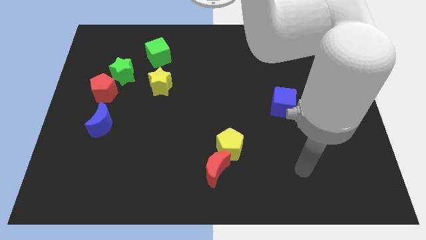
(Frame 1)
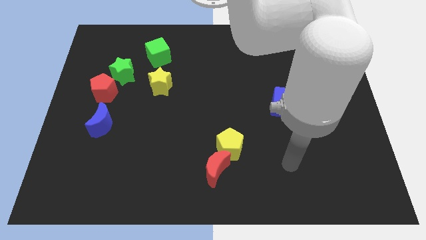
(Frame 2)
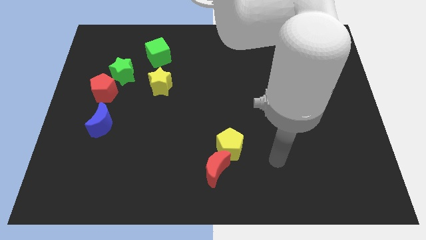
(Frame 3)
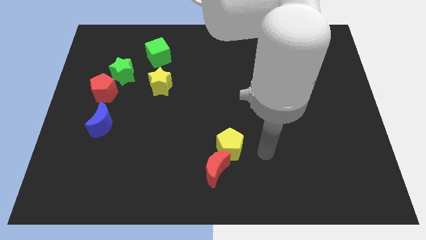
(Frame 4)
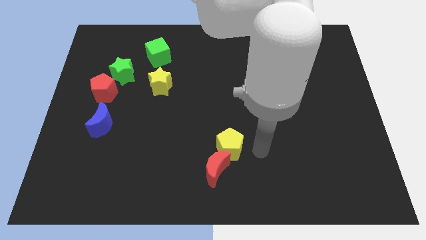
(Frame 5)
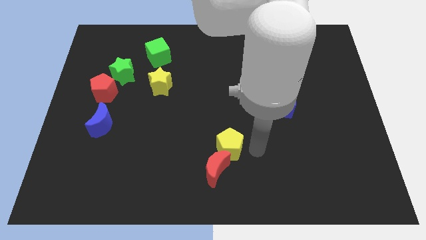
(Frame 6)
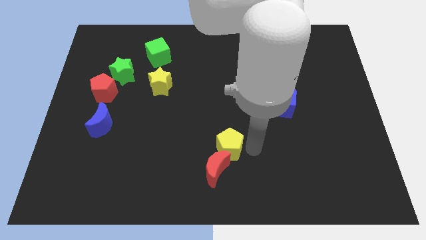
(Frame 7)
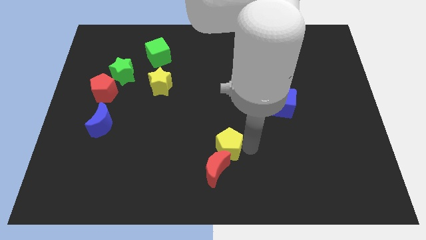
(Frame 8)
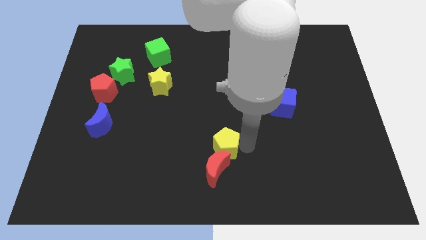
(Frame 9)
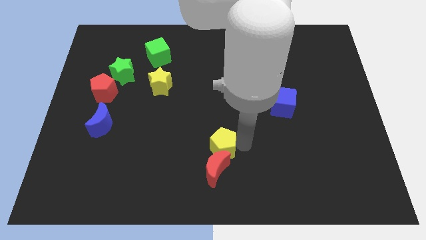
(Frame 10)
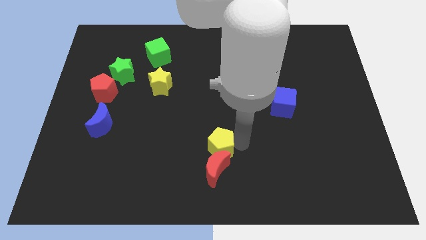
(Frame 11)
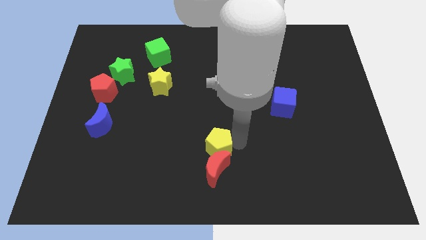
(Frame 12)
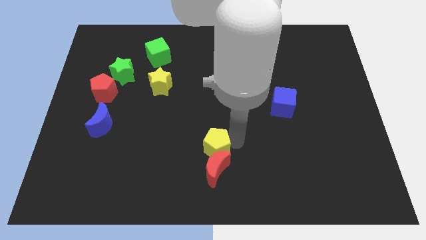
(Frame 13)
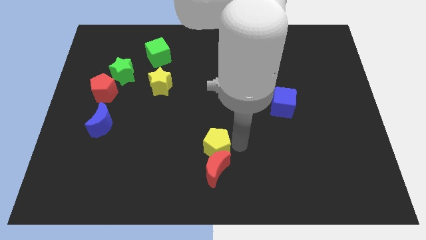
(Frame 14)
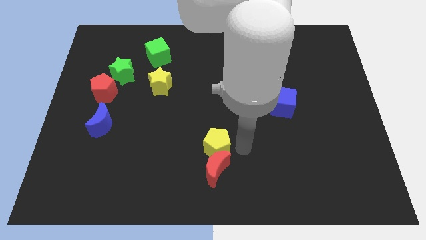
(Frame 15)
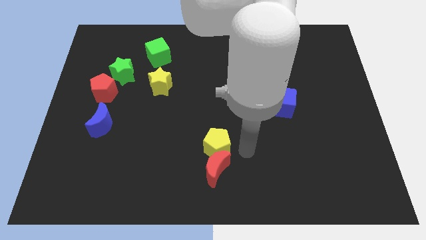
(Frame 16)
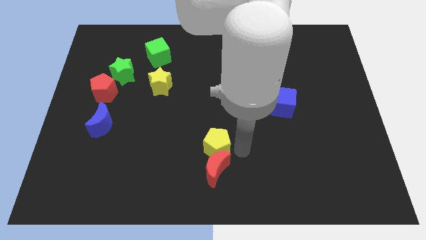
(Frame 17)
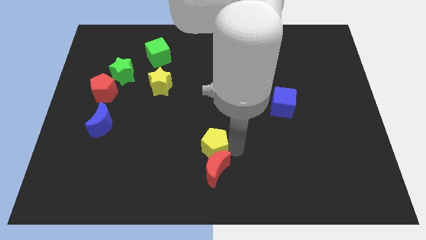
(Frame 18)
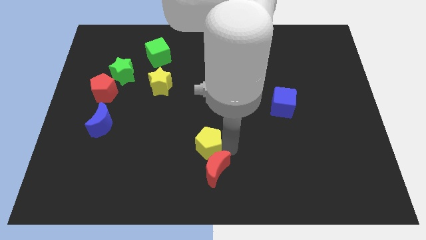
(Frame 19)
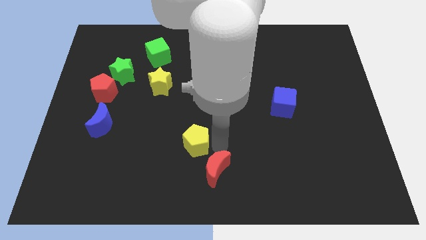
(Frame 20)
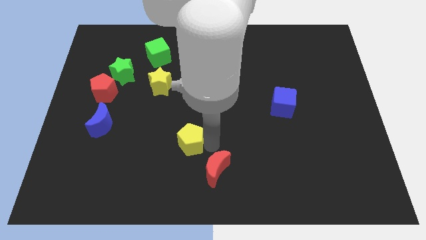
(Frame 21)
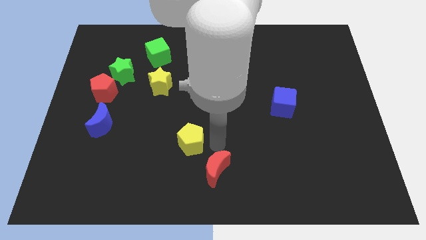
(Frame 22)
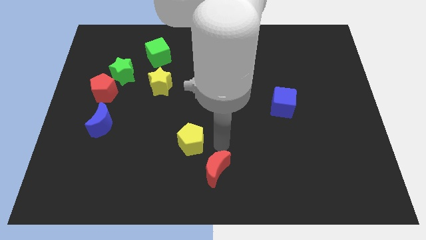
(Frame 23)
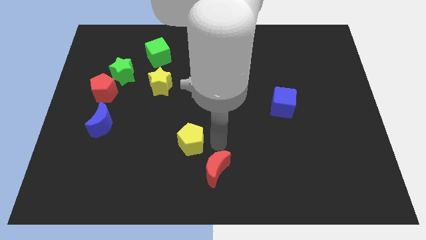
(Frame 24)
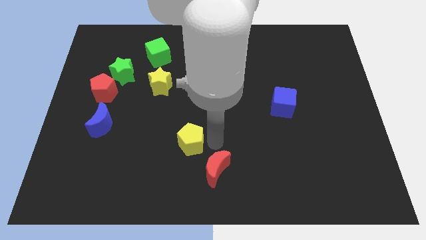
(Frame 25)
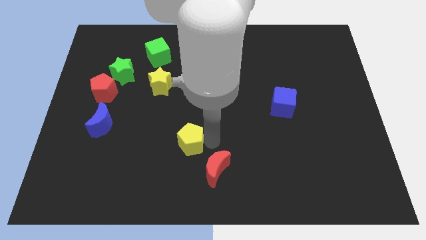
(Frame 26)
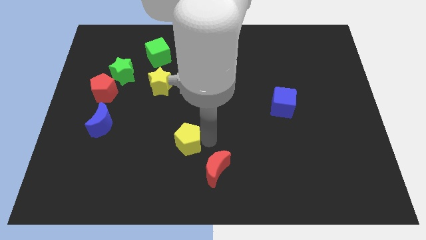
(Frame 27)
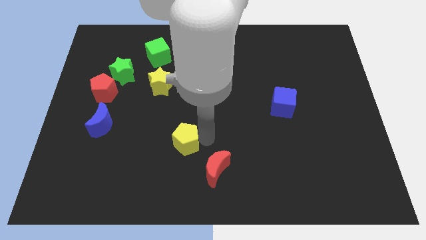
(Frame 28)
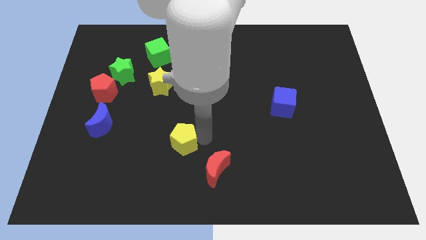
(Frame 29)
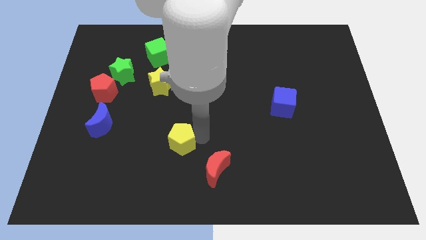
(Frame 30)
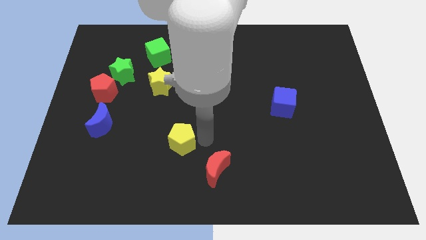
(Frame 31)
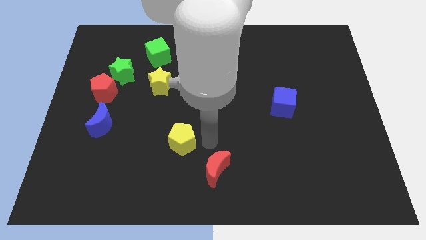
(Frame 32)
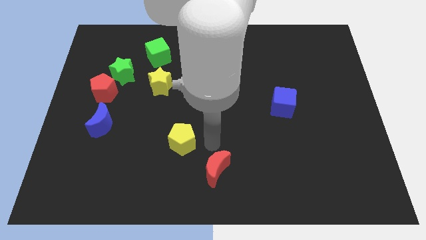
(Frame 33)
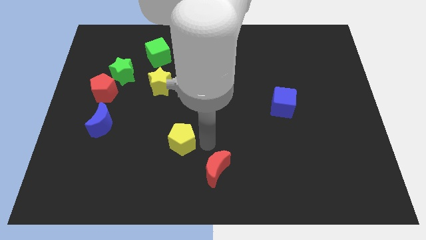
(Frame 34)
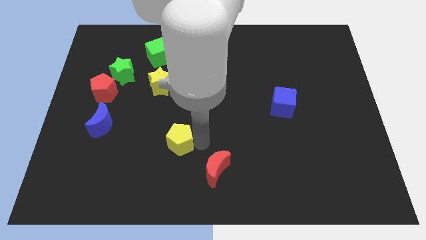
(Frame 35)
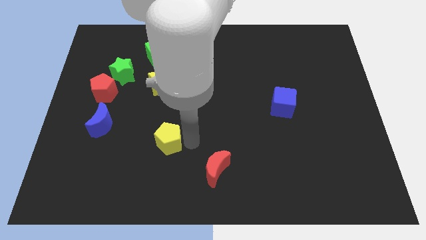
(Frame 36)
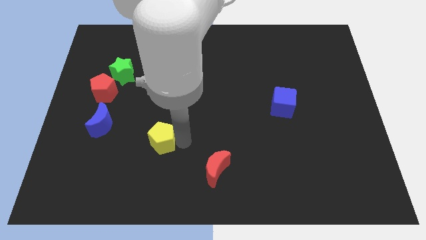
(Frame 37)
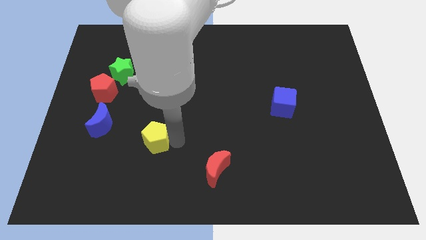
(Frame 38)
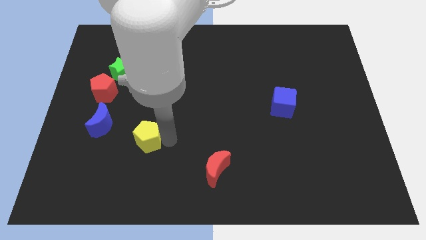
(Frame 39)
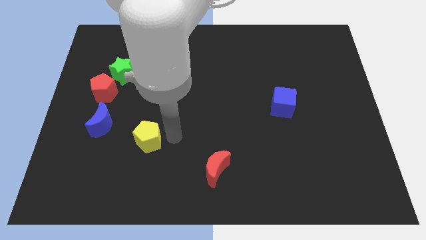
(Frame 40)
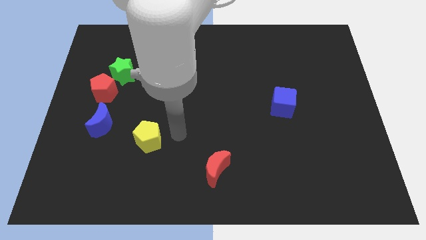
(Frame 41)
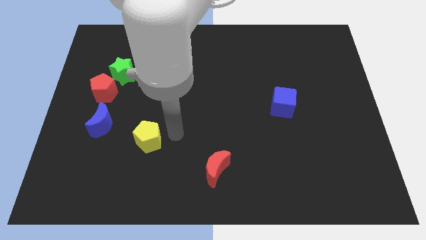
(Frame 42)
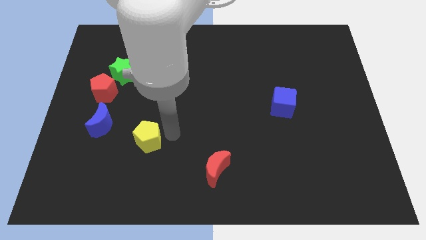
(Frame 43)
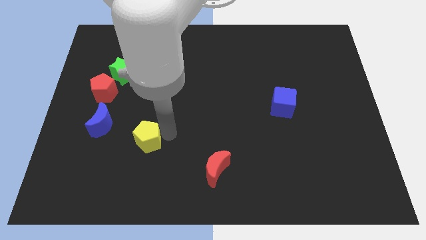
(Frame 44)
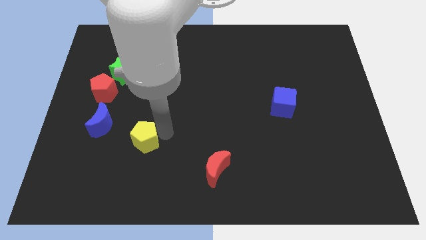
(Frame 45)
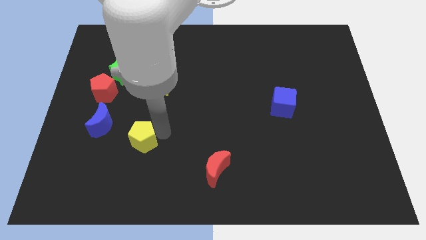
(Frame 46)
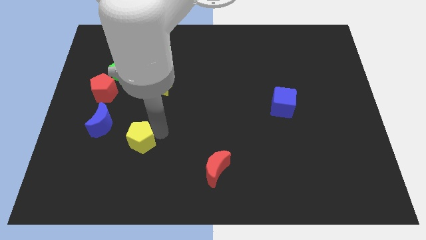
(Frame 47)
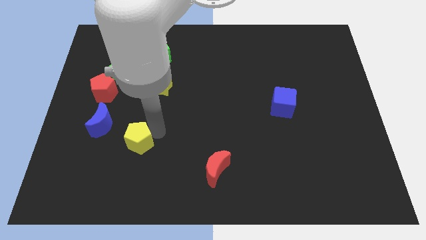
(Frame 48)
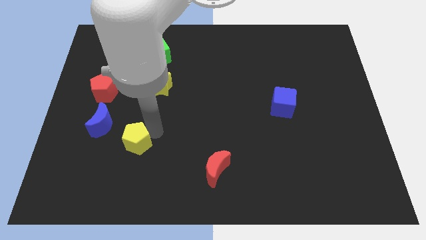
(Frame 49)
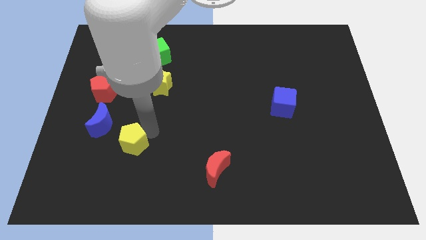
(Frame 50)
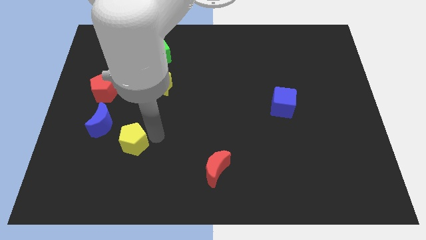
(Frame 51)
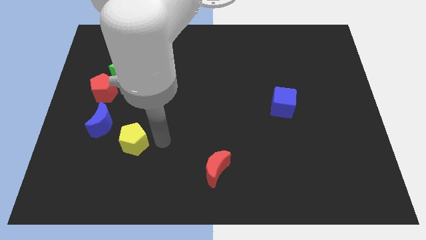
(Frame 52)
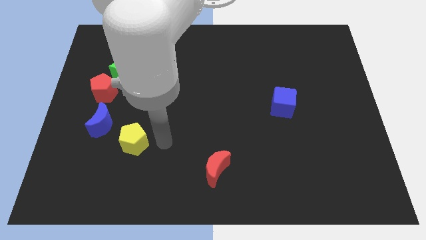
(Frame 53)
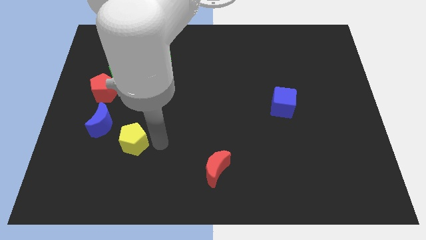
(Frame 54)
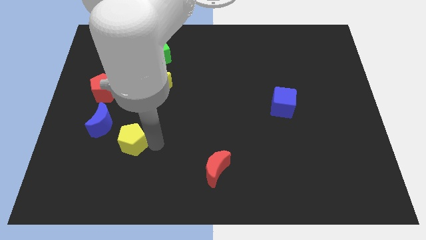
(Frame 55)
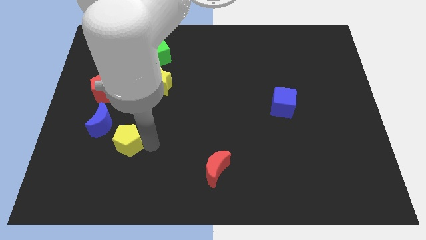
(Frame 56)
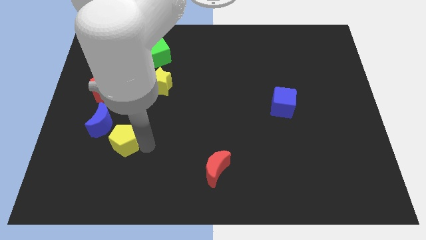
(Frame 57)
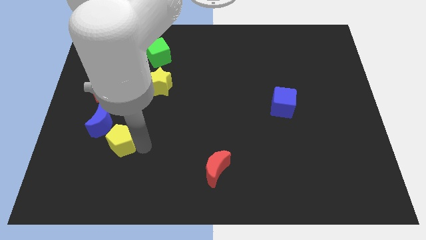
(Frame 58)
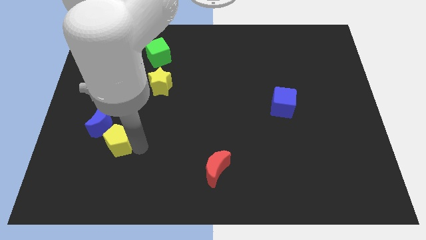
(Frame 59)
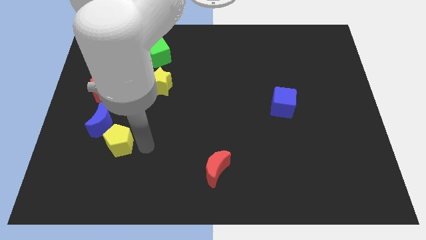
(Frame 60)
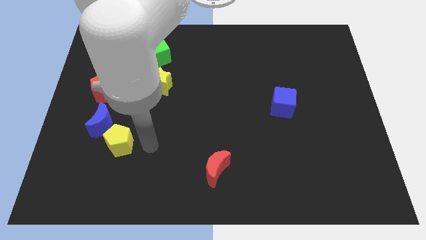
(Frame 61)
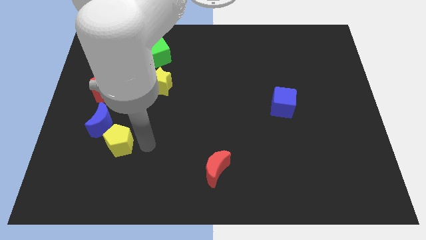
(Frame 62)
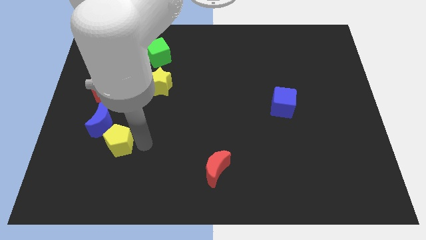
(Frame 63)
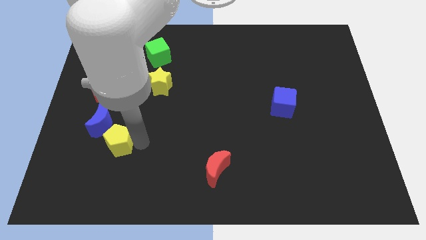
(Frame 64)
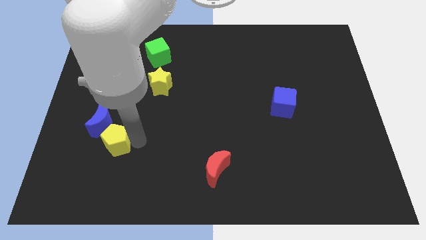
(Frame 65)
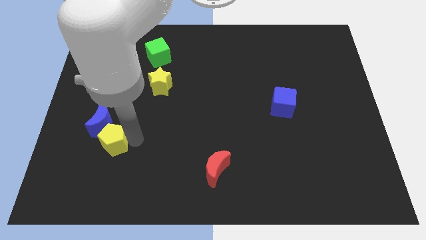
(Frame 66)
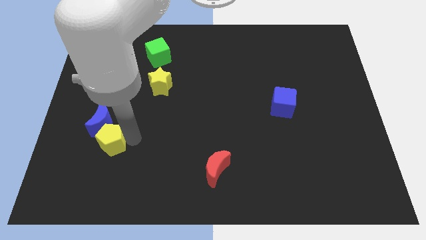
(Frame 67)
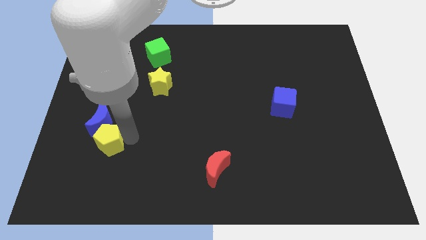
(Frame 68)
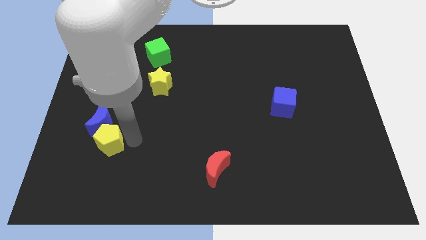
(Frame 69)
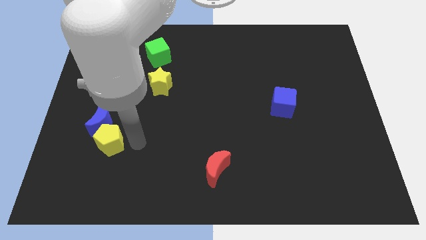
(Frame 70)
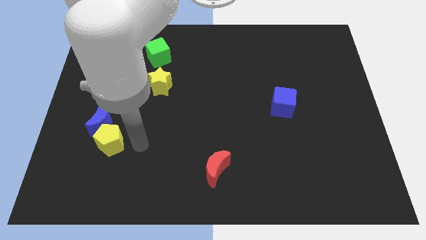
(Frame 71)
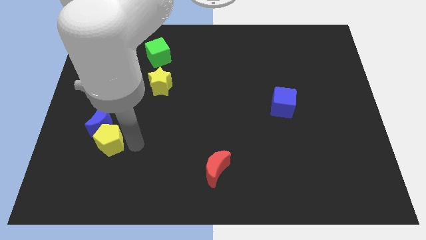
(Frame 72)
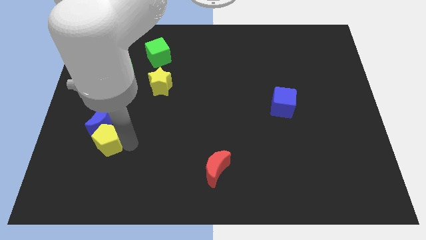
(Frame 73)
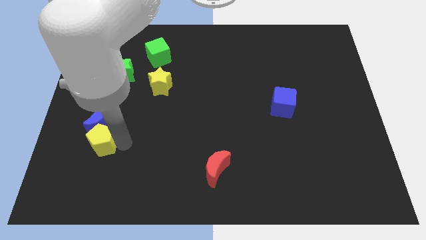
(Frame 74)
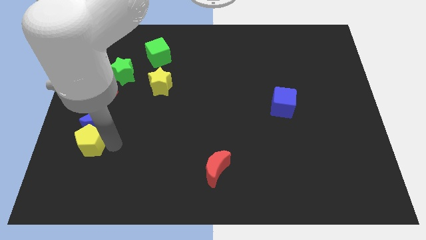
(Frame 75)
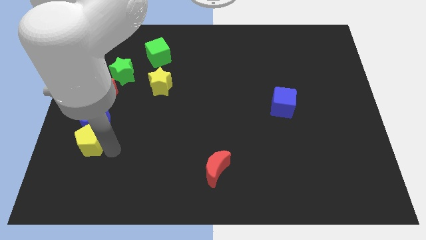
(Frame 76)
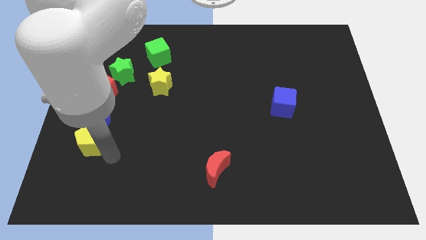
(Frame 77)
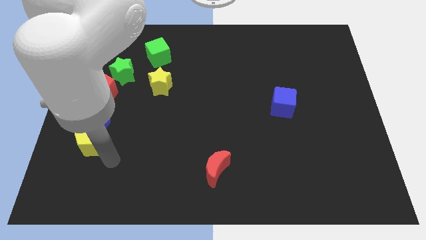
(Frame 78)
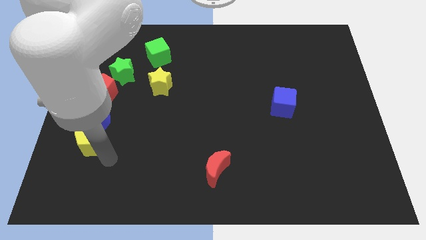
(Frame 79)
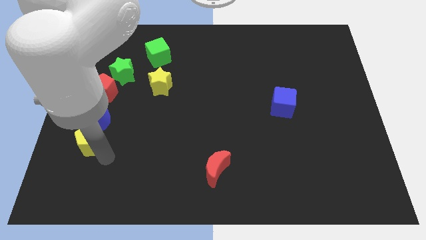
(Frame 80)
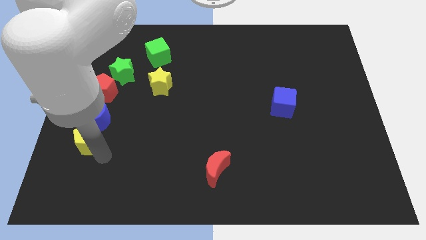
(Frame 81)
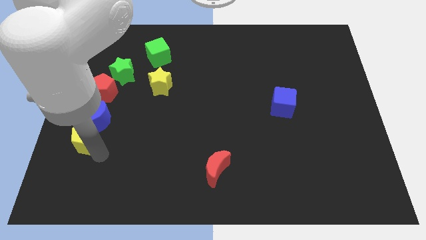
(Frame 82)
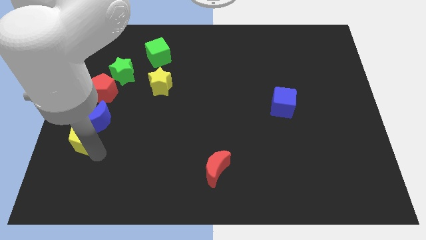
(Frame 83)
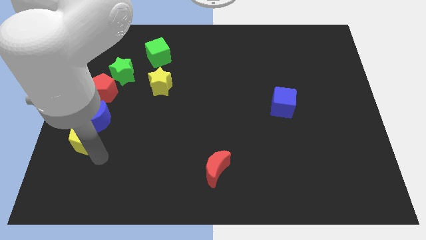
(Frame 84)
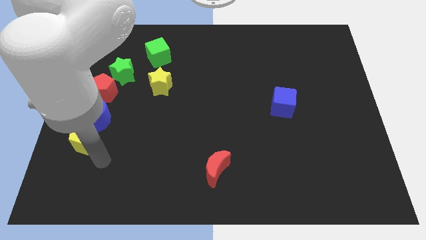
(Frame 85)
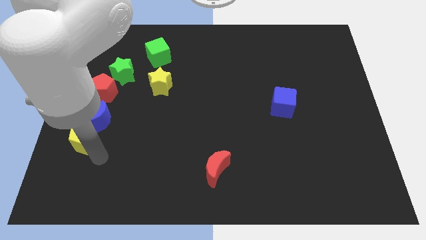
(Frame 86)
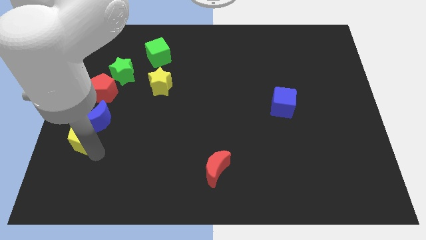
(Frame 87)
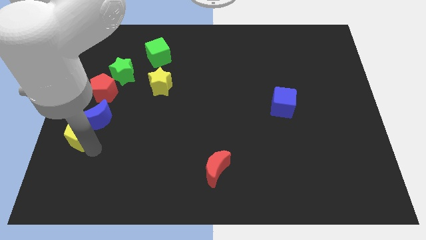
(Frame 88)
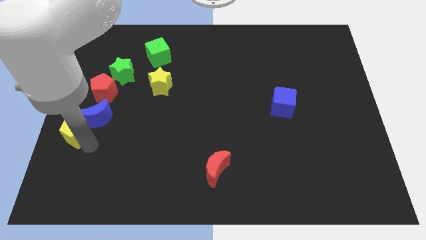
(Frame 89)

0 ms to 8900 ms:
put the yellow pentagon to the left side
